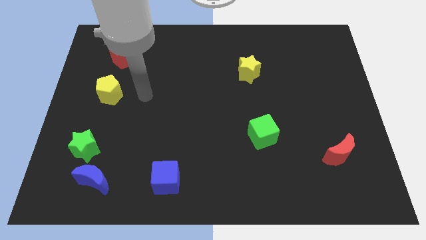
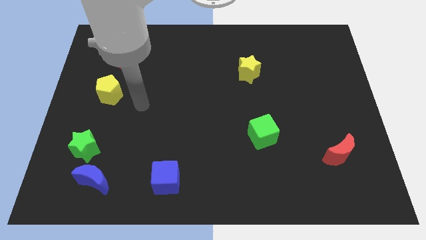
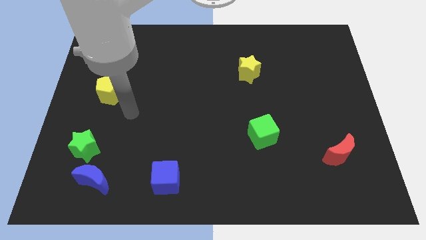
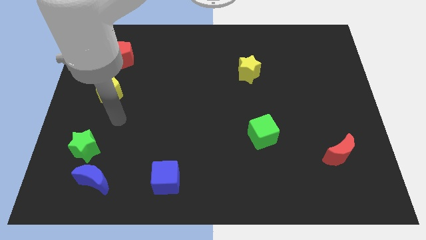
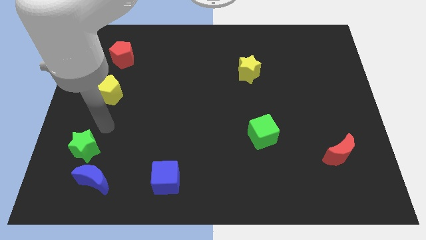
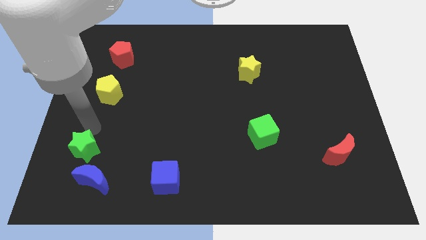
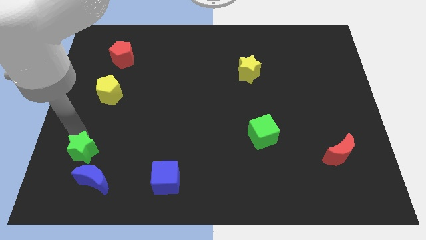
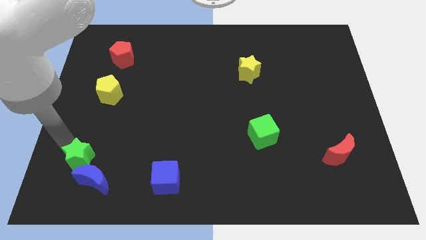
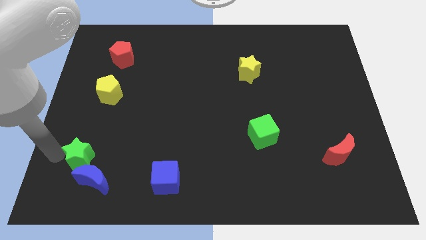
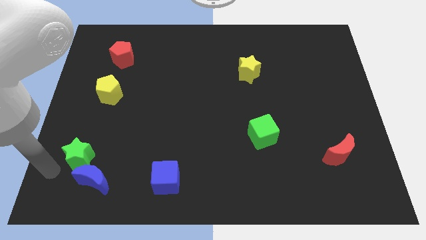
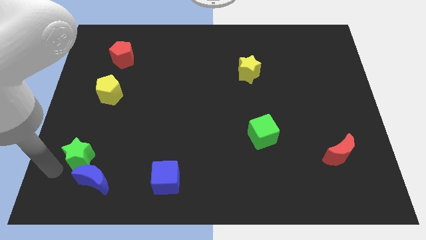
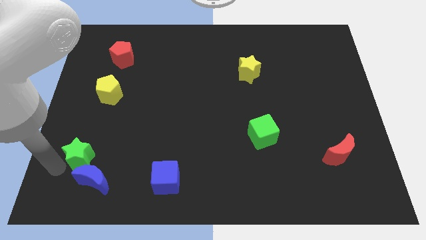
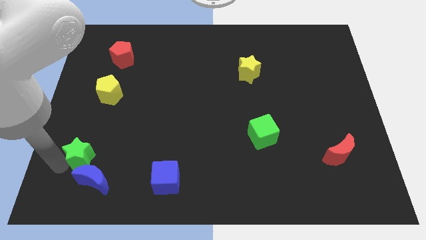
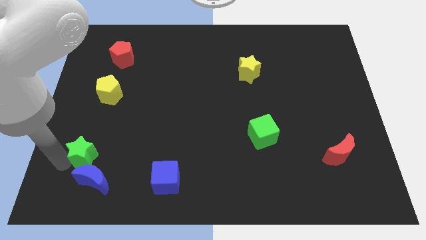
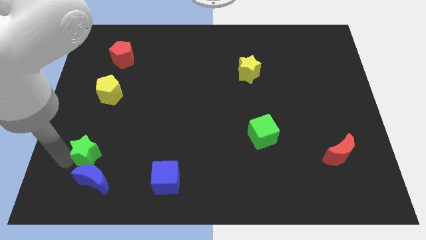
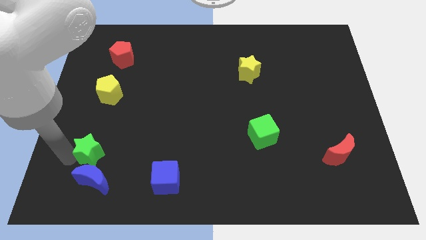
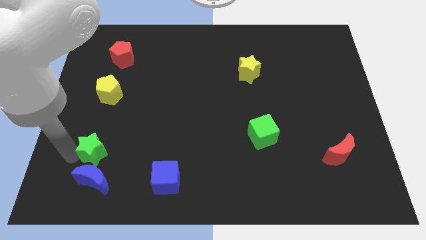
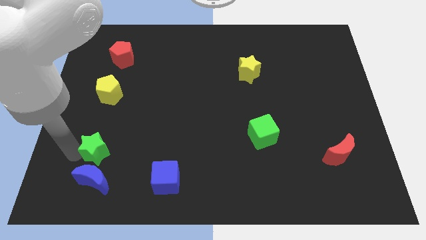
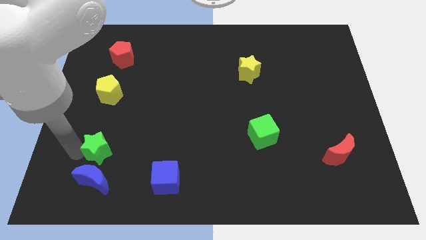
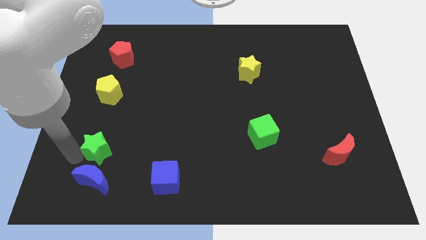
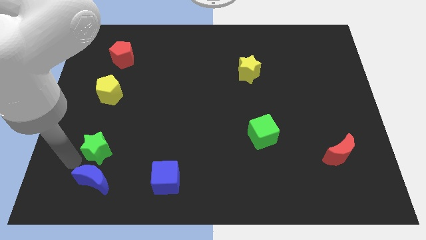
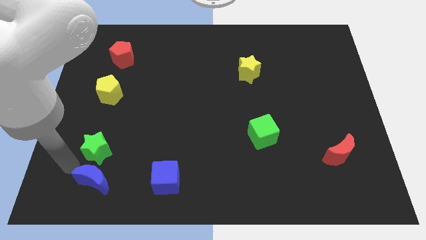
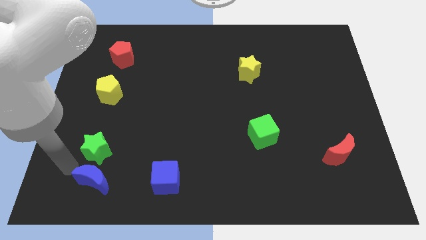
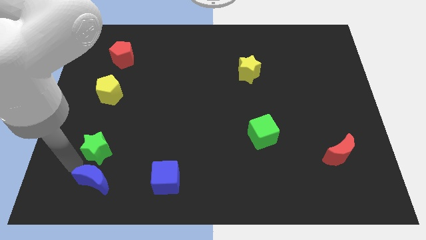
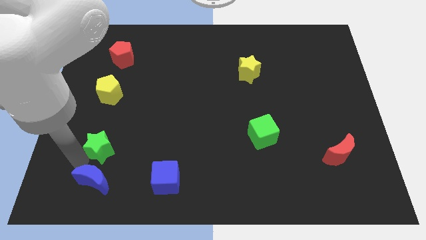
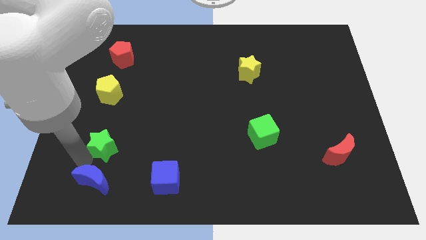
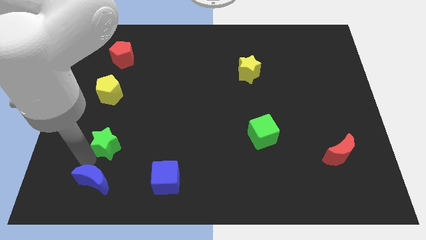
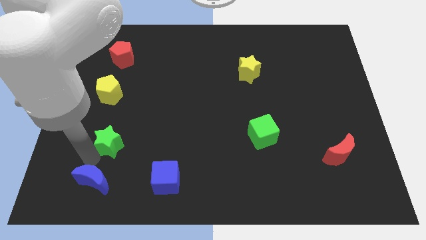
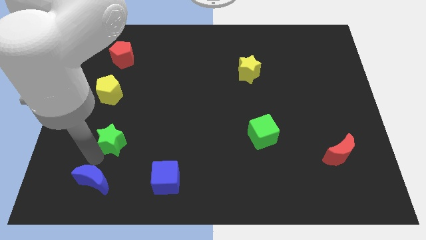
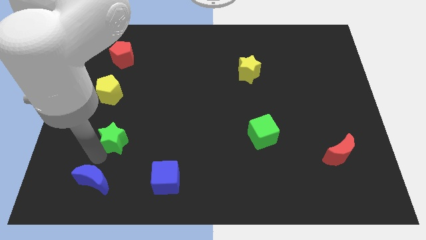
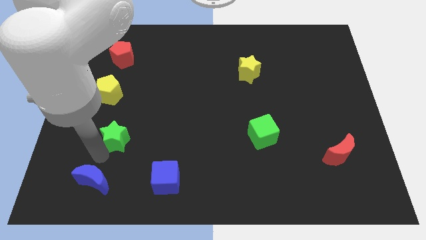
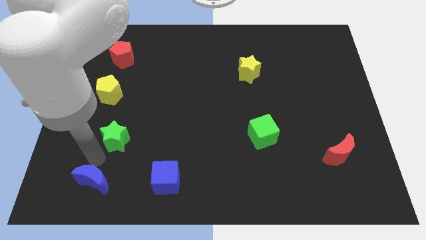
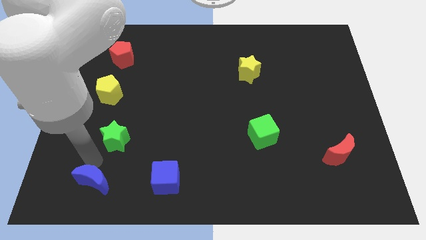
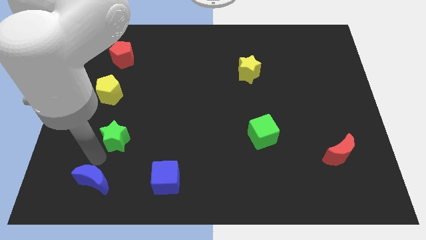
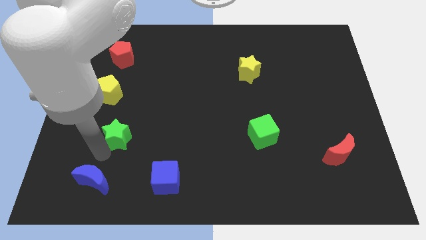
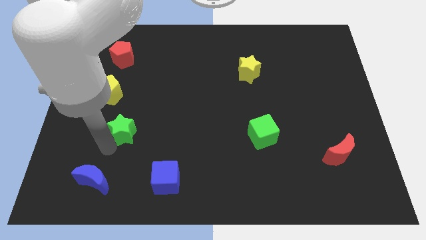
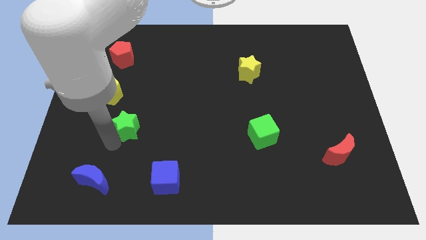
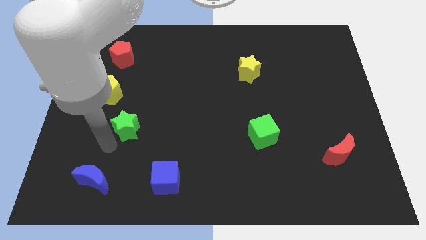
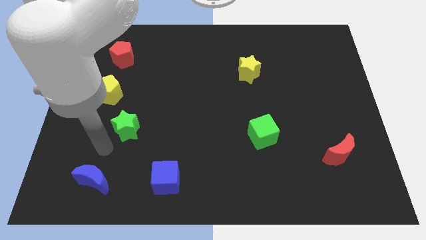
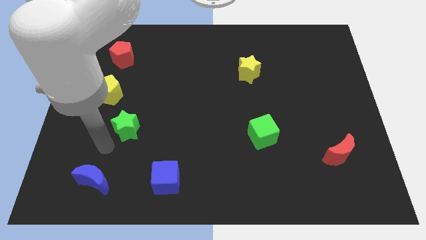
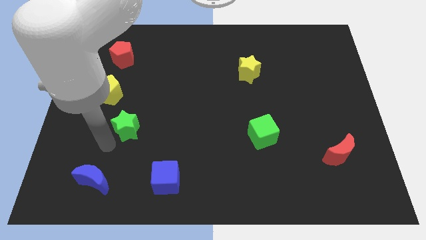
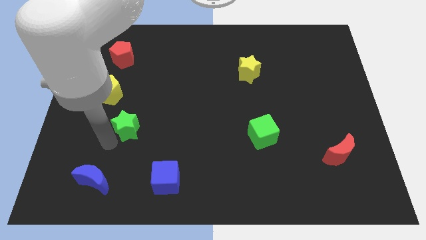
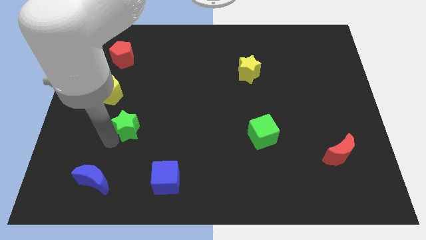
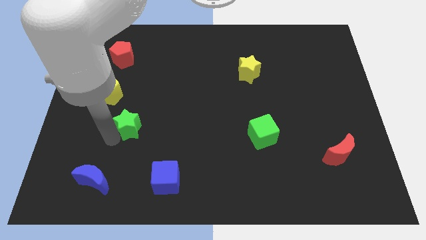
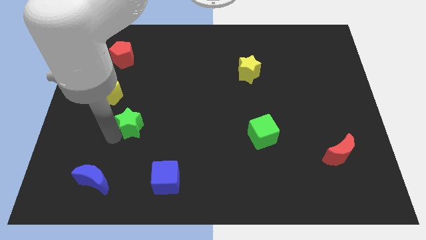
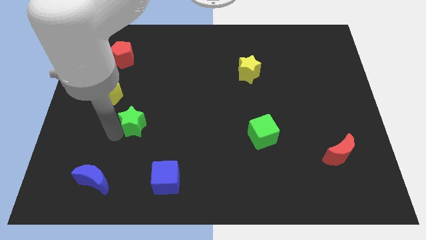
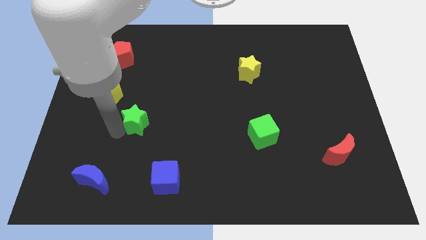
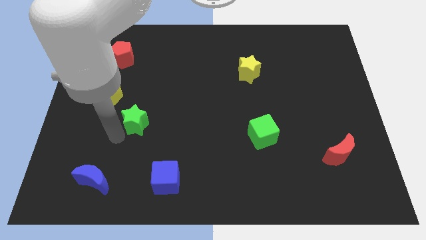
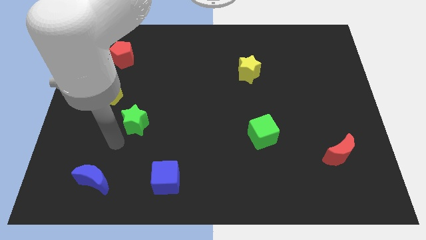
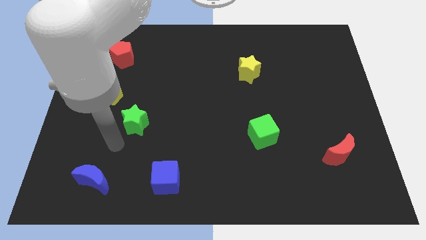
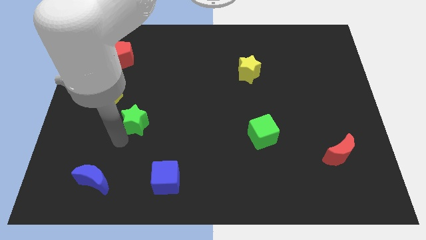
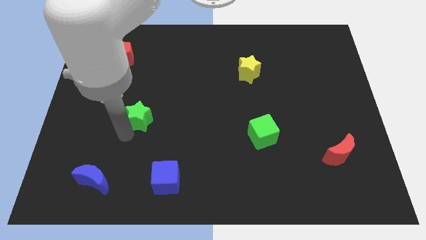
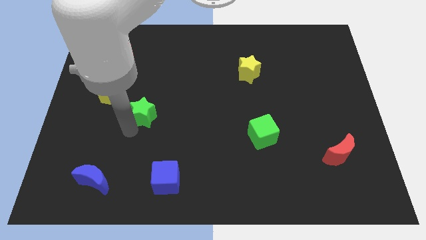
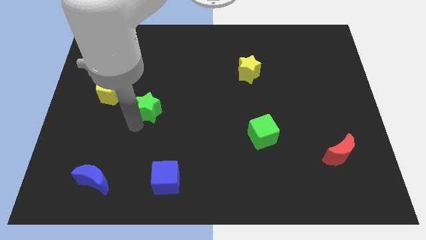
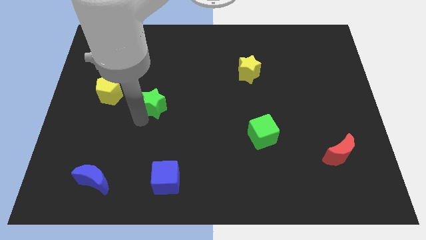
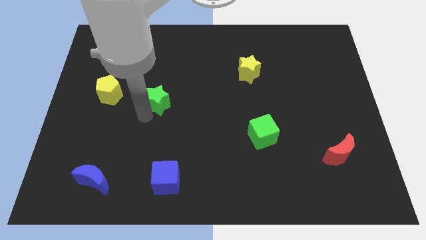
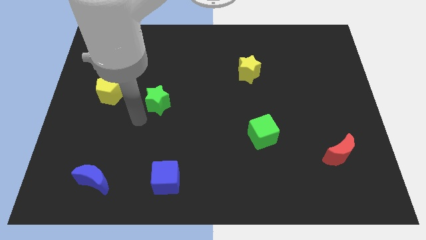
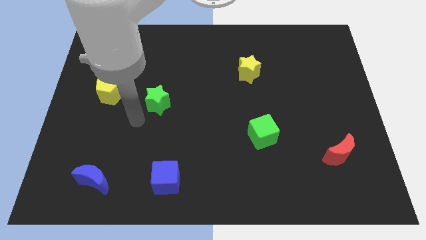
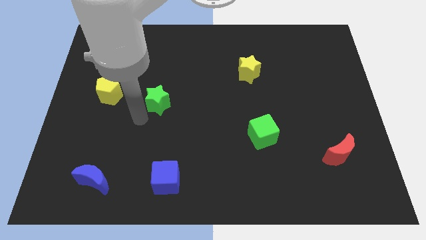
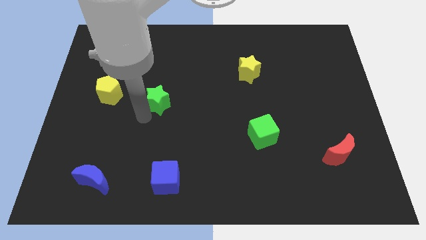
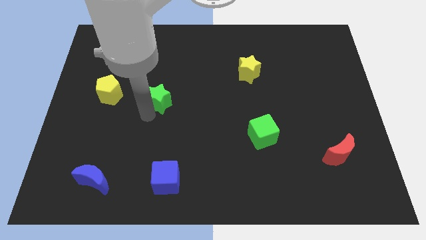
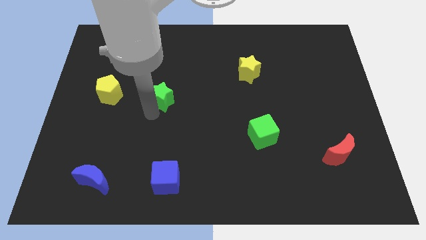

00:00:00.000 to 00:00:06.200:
move the green star diagonally up and to the right

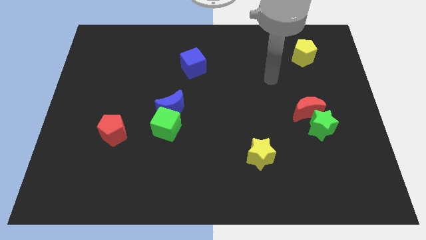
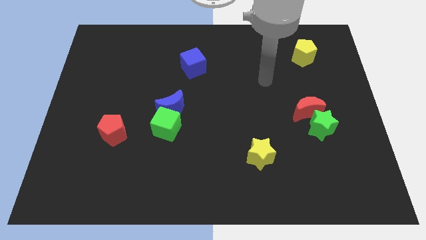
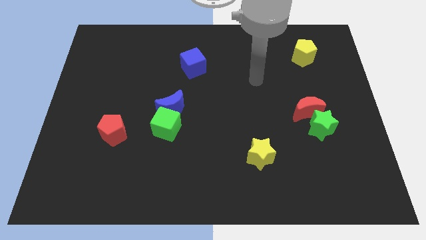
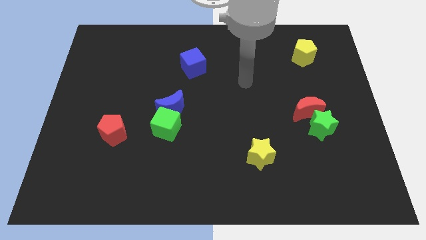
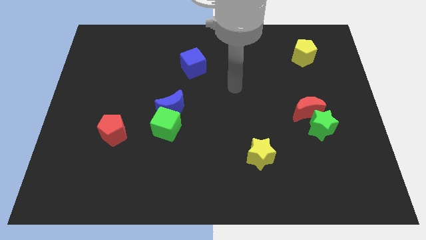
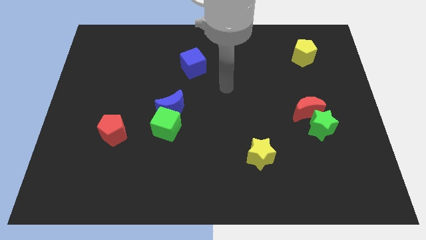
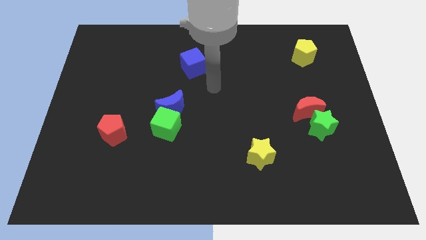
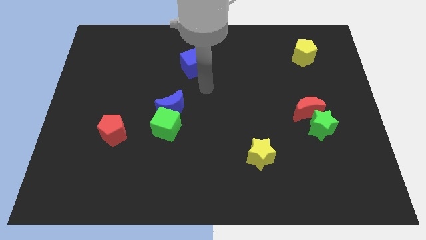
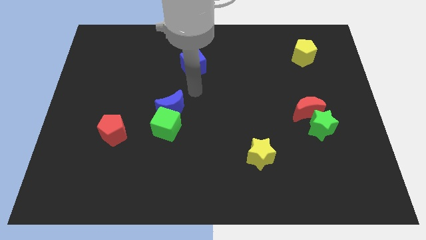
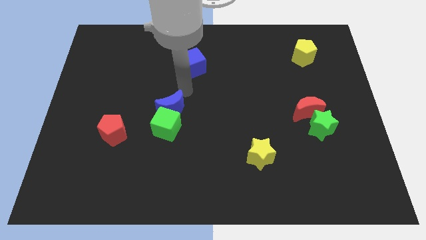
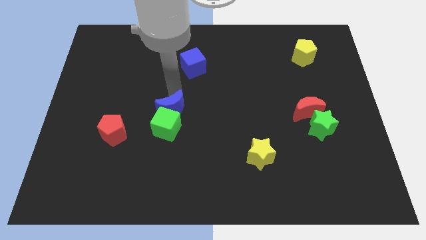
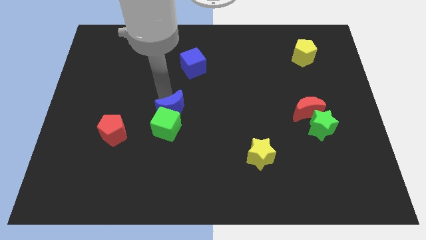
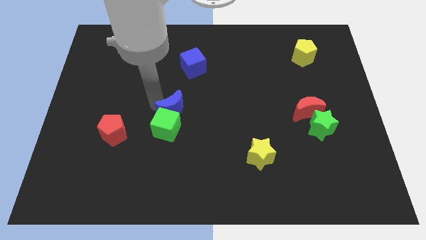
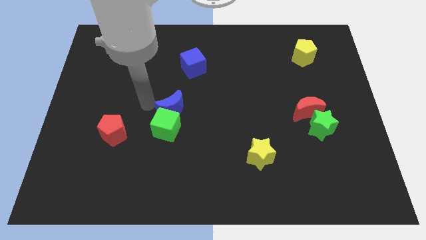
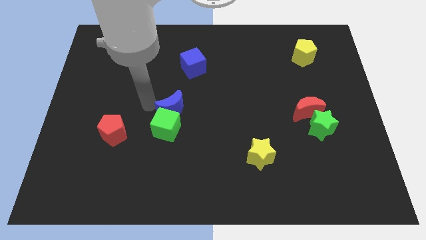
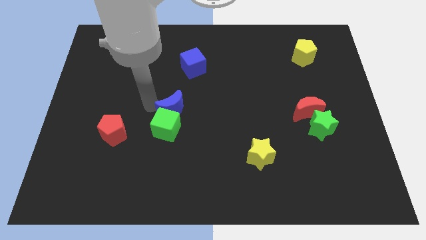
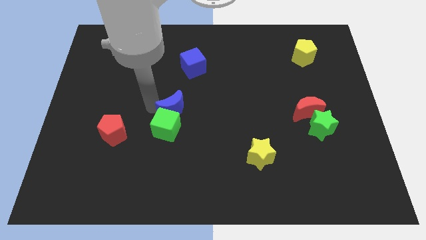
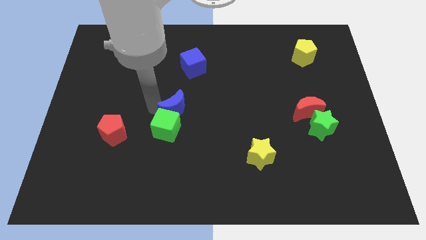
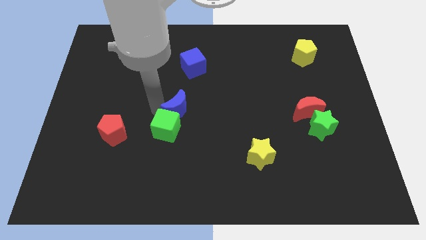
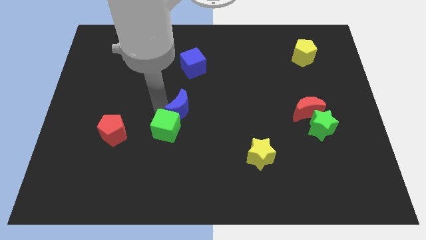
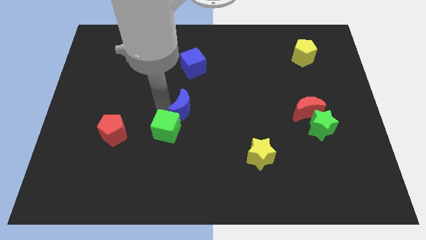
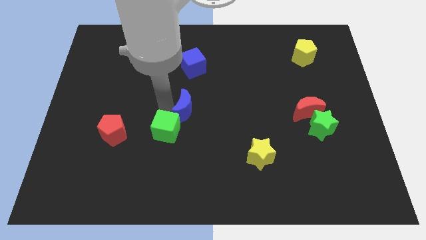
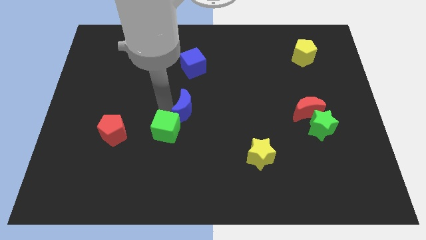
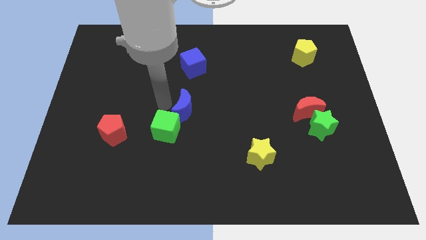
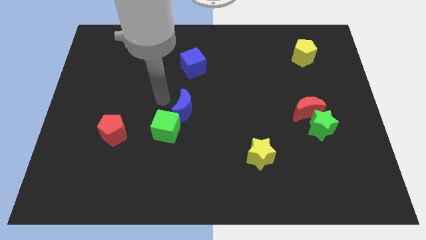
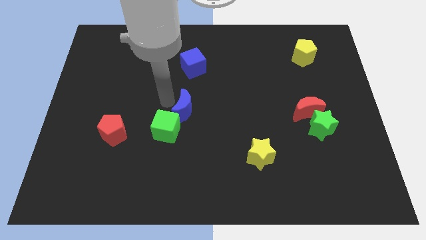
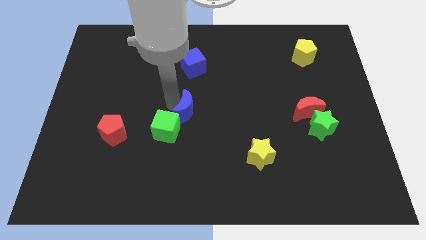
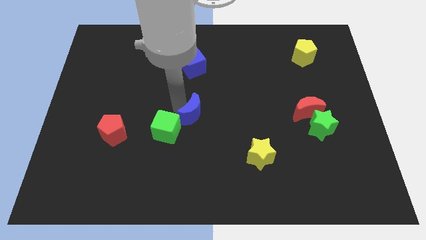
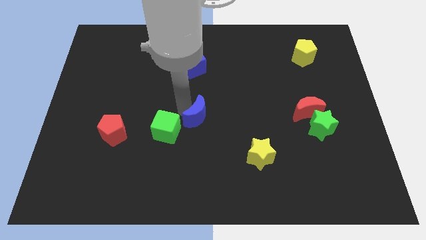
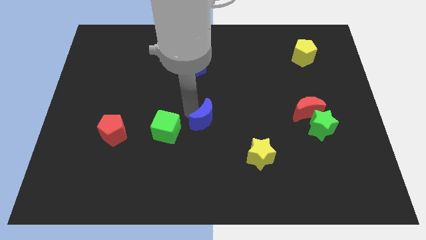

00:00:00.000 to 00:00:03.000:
slightly push the blue moon down and right diagonally
